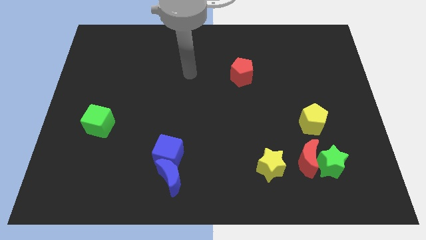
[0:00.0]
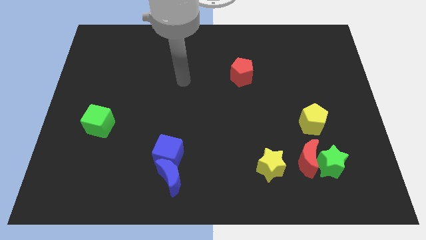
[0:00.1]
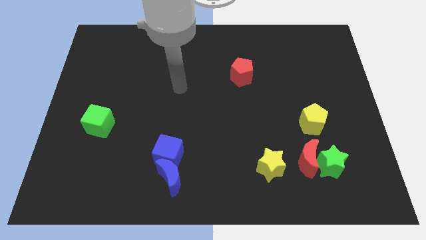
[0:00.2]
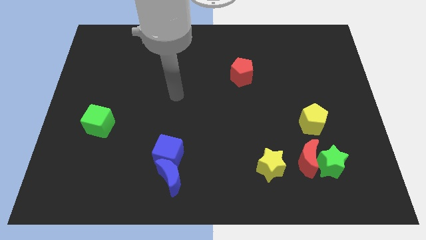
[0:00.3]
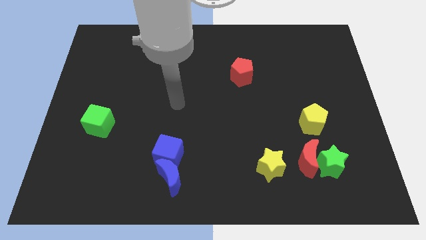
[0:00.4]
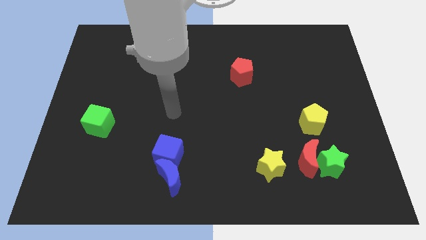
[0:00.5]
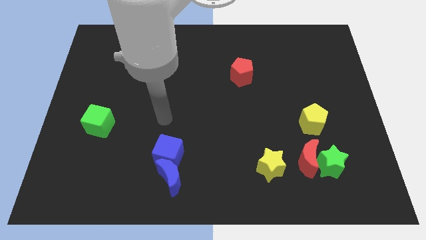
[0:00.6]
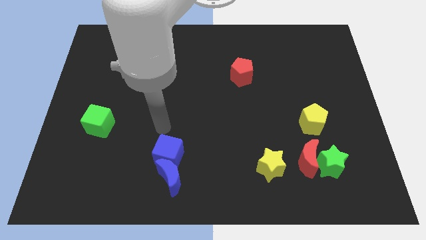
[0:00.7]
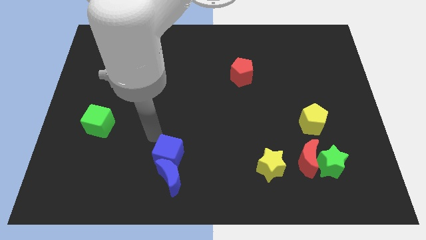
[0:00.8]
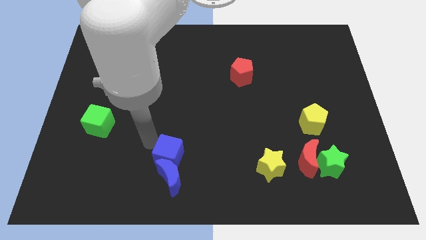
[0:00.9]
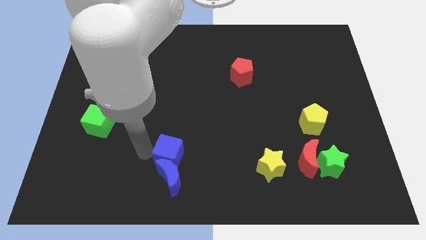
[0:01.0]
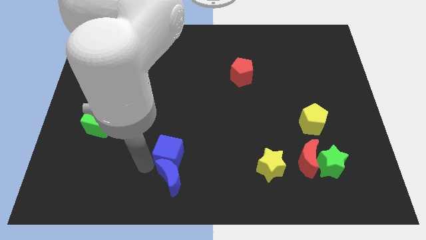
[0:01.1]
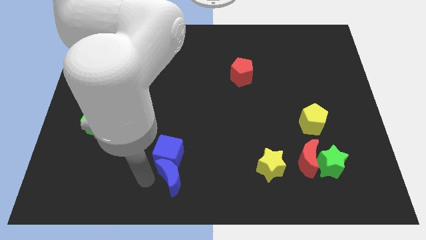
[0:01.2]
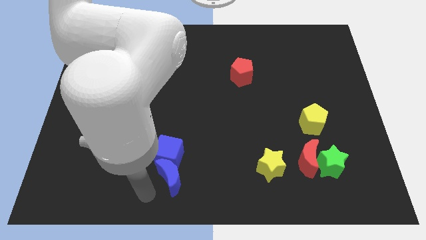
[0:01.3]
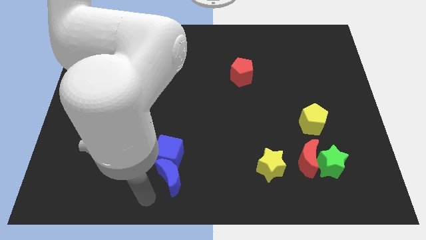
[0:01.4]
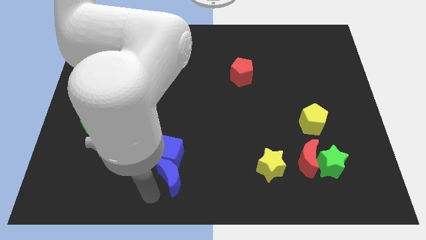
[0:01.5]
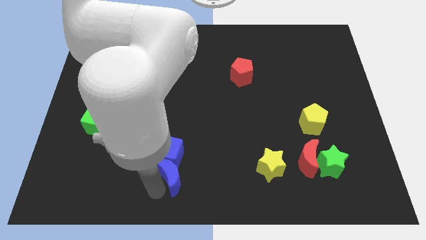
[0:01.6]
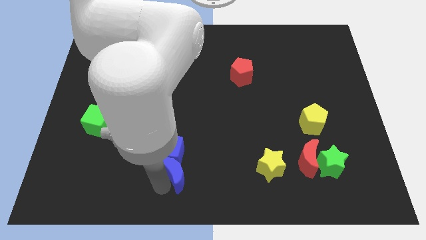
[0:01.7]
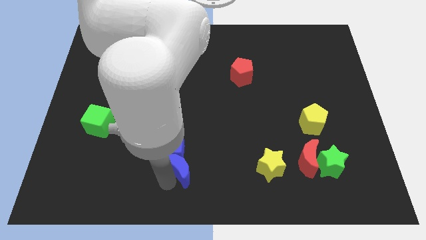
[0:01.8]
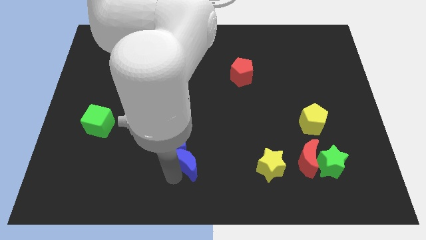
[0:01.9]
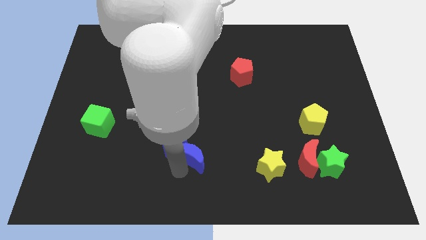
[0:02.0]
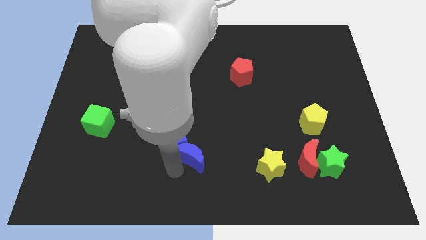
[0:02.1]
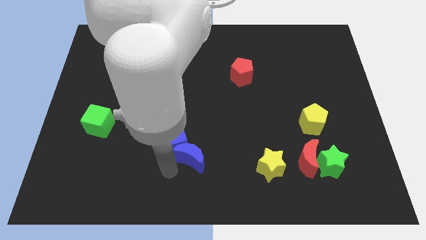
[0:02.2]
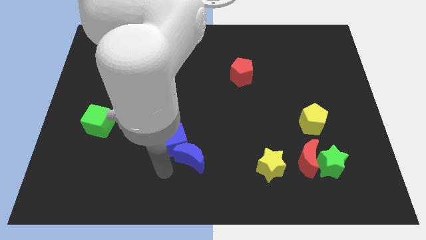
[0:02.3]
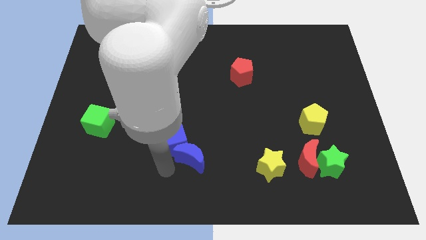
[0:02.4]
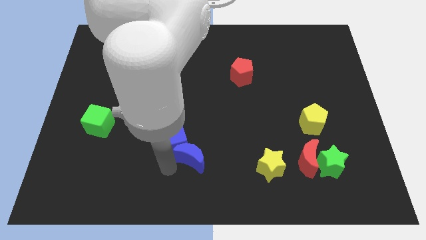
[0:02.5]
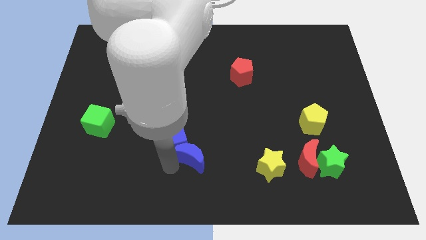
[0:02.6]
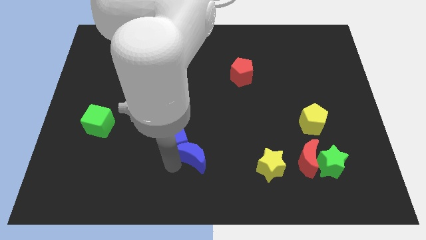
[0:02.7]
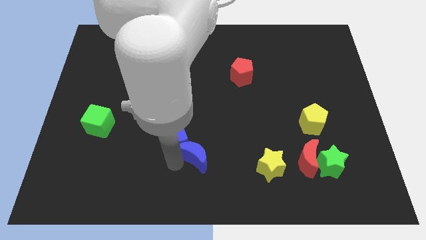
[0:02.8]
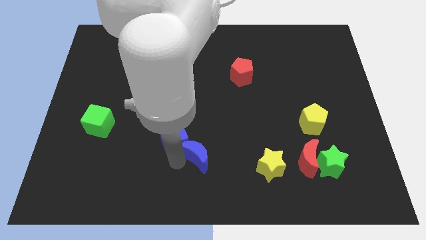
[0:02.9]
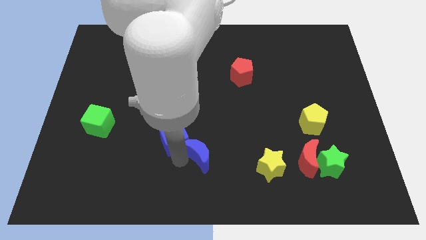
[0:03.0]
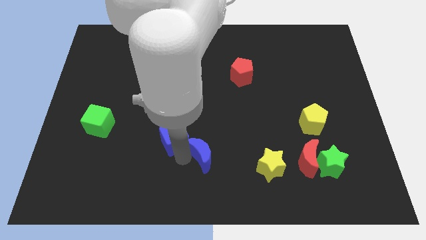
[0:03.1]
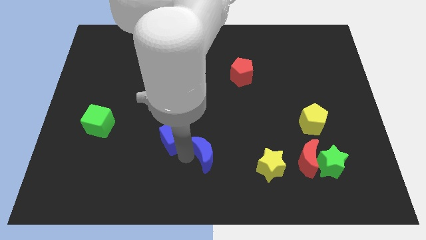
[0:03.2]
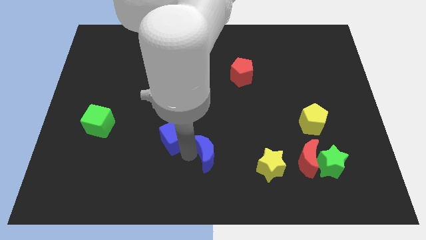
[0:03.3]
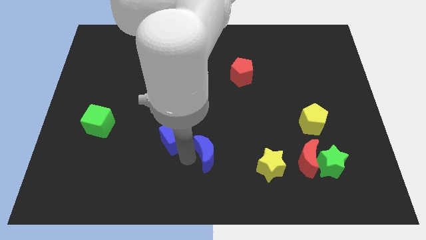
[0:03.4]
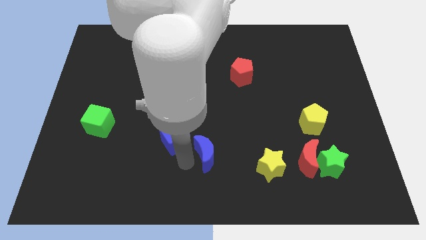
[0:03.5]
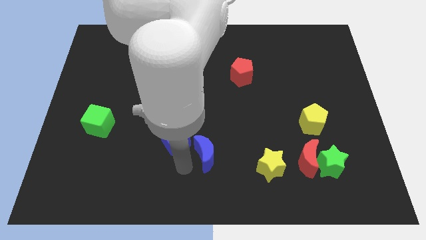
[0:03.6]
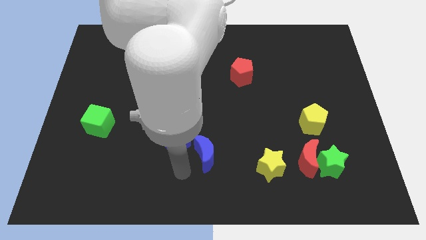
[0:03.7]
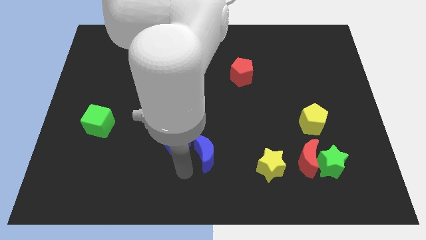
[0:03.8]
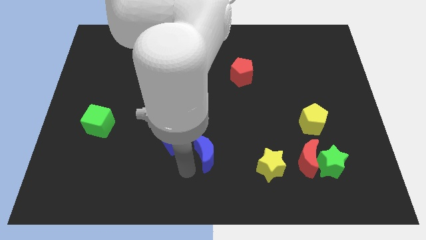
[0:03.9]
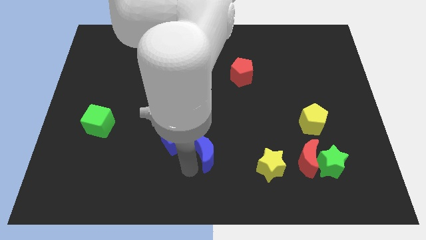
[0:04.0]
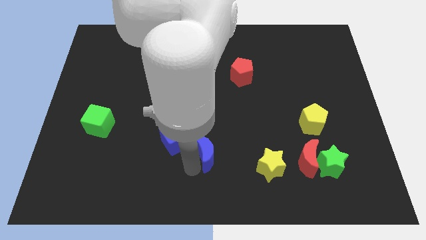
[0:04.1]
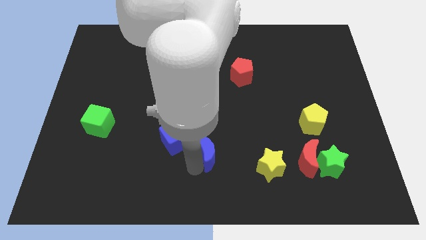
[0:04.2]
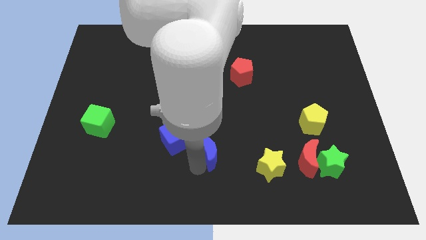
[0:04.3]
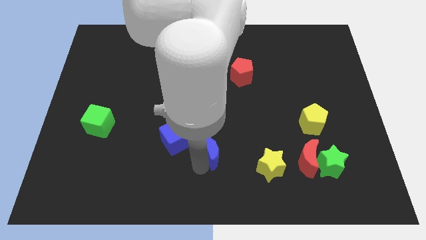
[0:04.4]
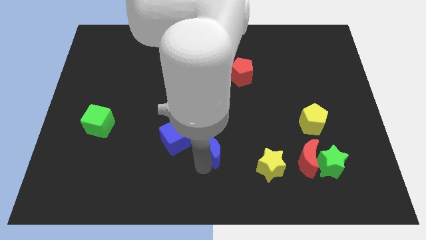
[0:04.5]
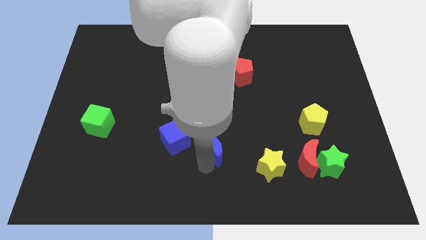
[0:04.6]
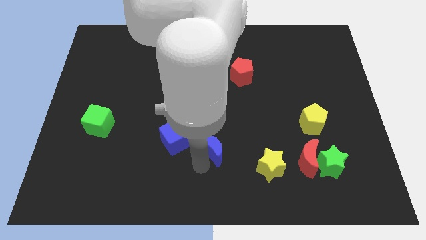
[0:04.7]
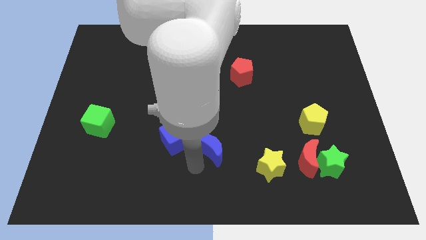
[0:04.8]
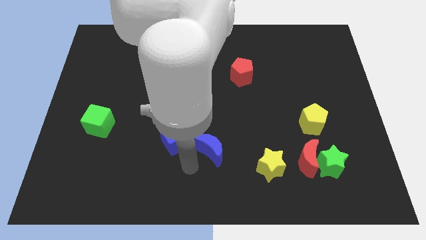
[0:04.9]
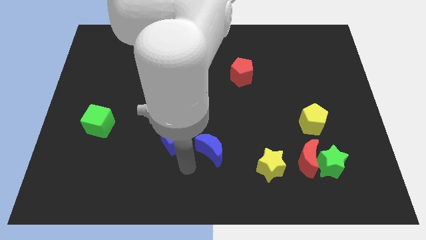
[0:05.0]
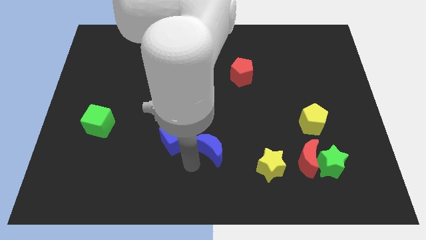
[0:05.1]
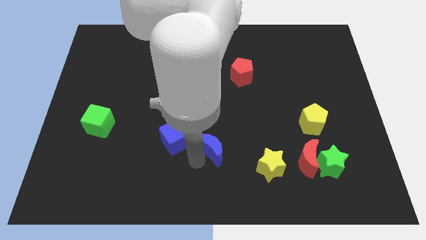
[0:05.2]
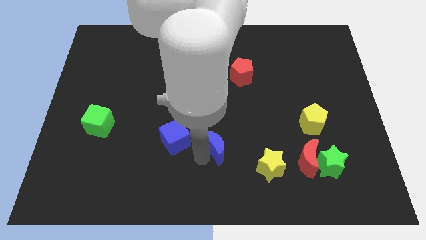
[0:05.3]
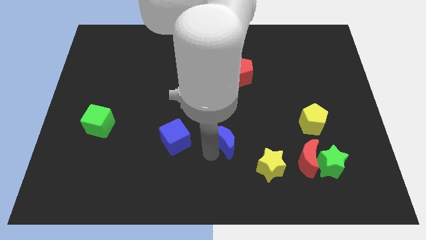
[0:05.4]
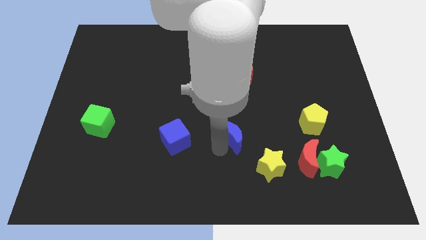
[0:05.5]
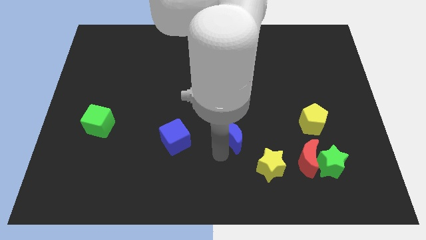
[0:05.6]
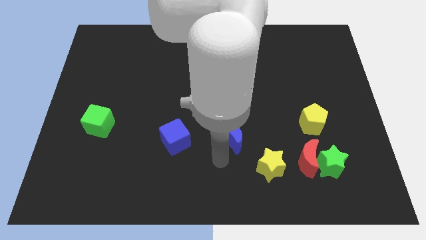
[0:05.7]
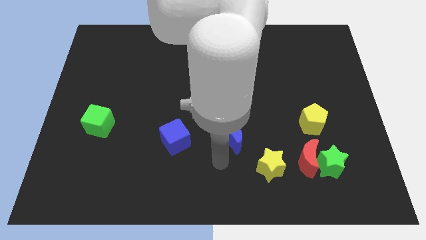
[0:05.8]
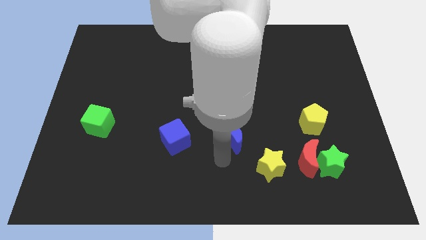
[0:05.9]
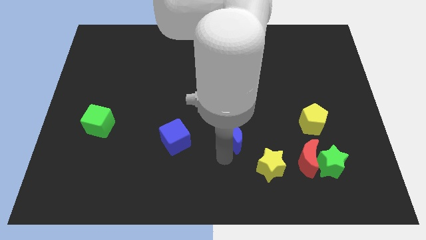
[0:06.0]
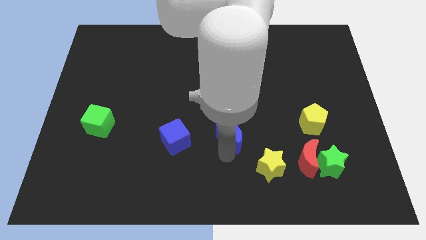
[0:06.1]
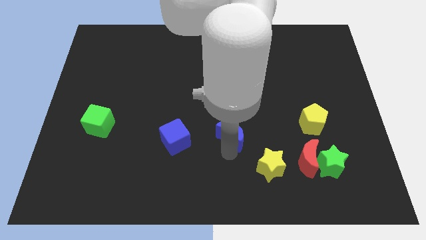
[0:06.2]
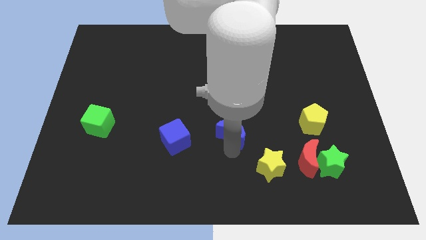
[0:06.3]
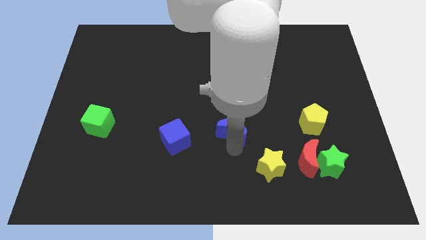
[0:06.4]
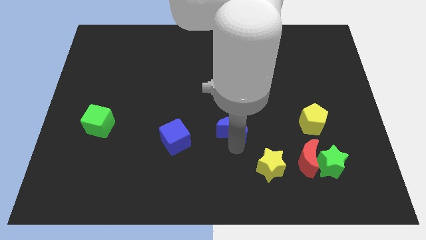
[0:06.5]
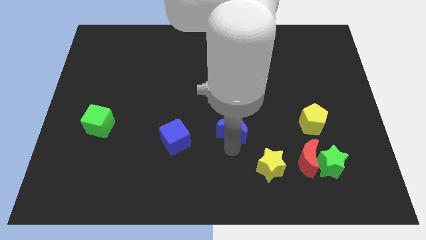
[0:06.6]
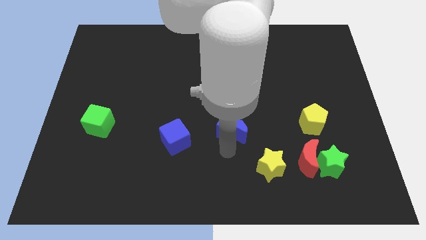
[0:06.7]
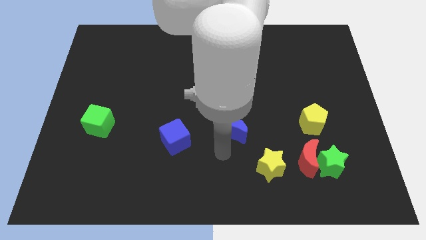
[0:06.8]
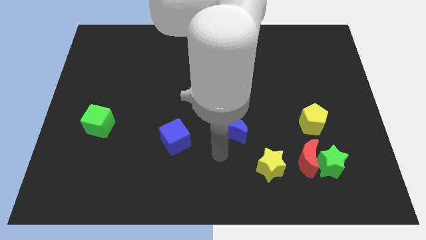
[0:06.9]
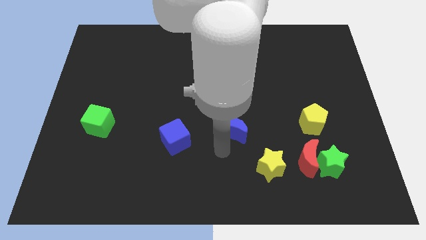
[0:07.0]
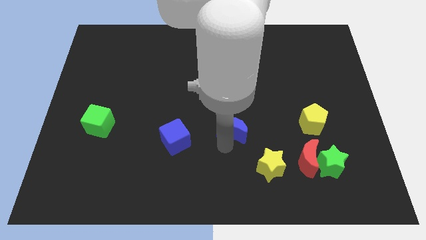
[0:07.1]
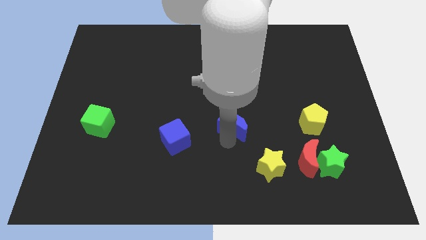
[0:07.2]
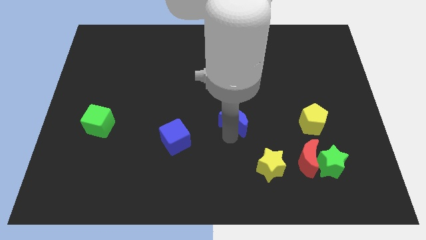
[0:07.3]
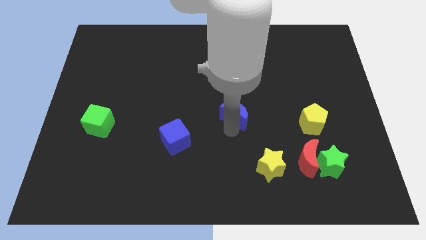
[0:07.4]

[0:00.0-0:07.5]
move the blue moon upwards and to the right diagonally
